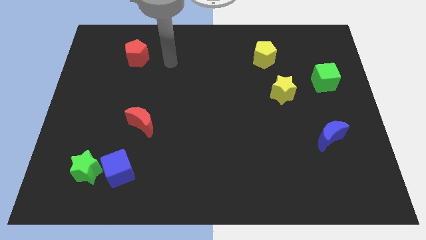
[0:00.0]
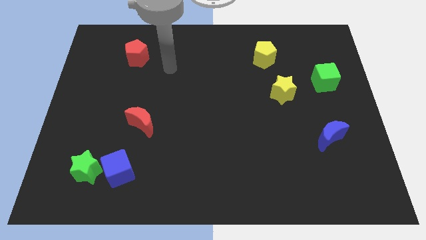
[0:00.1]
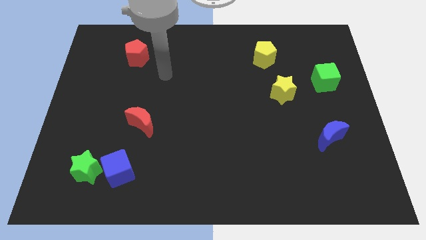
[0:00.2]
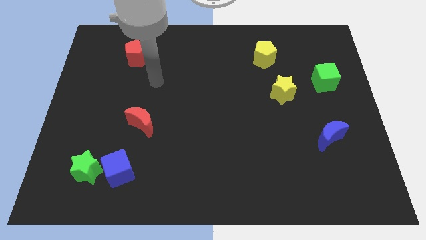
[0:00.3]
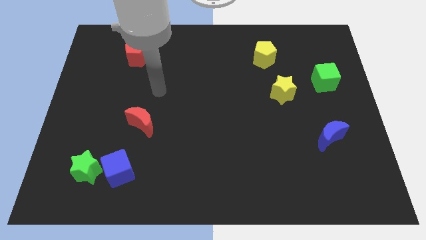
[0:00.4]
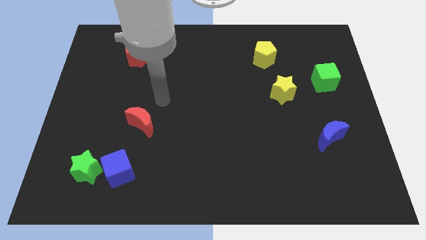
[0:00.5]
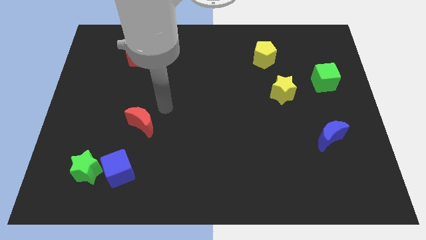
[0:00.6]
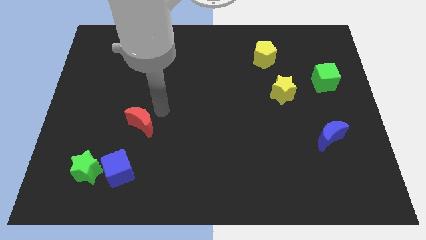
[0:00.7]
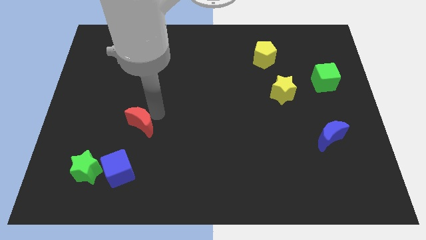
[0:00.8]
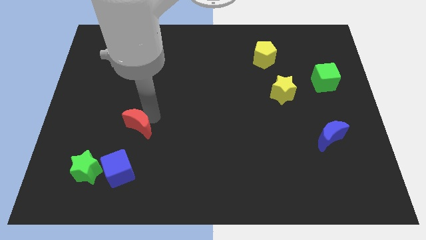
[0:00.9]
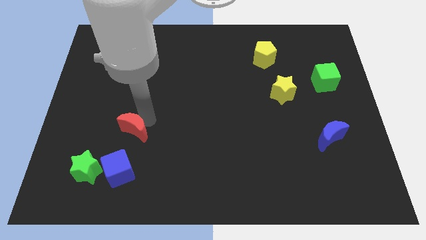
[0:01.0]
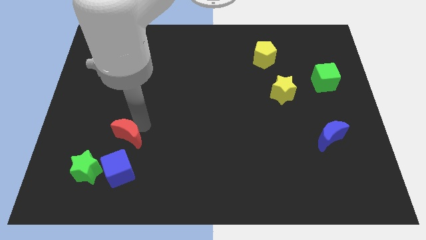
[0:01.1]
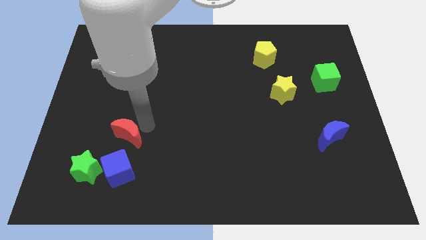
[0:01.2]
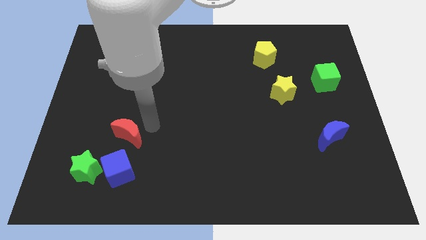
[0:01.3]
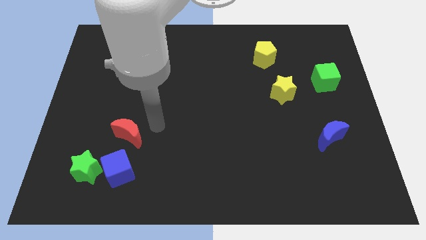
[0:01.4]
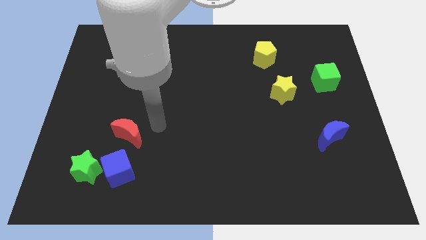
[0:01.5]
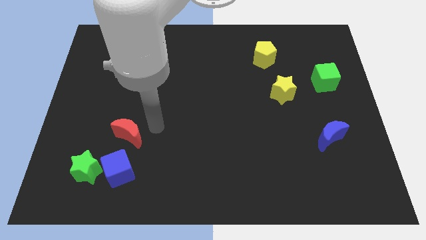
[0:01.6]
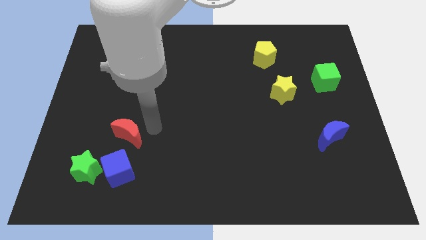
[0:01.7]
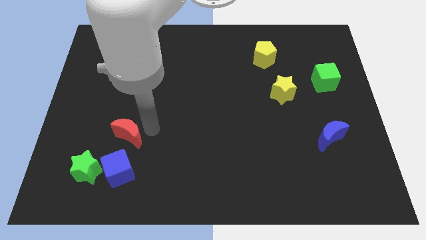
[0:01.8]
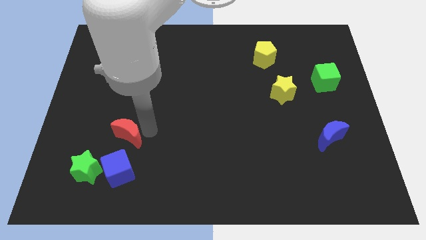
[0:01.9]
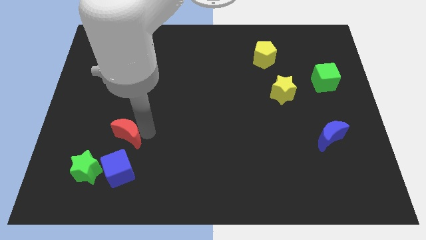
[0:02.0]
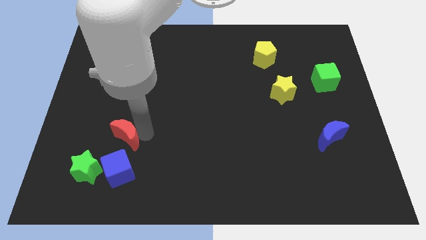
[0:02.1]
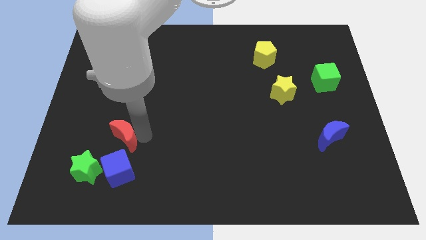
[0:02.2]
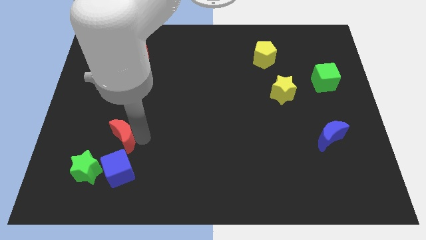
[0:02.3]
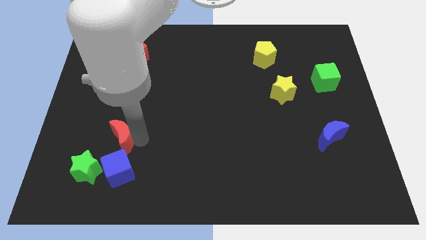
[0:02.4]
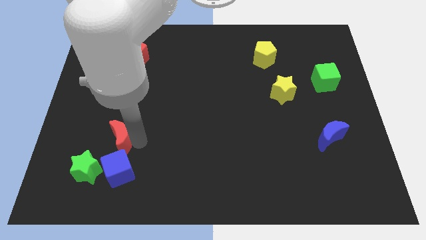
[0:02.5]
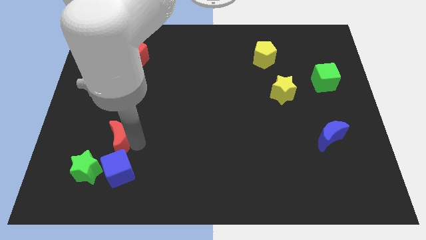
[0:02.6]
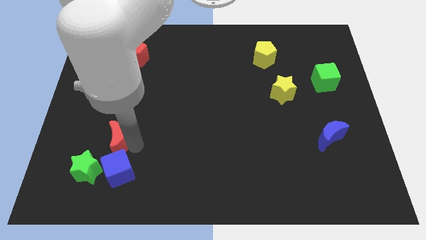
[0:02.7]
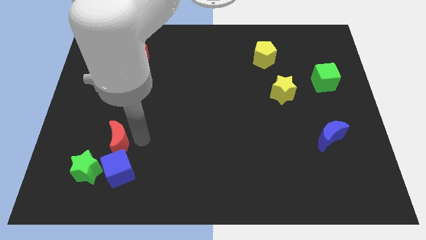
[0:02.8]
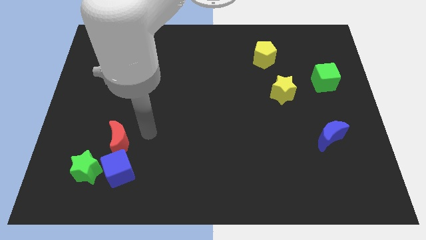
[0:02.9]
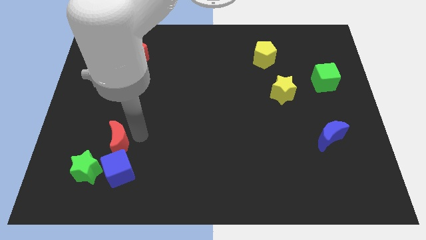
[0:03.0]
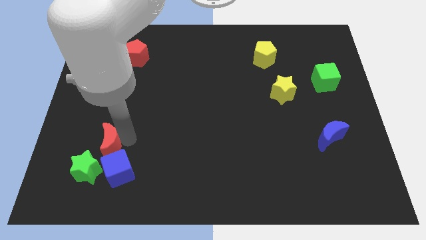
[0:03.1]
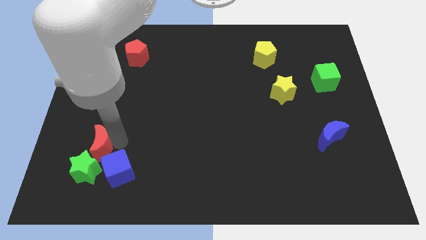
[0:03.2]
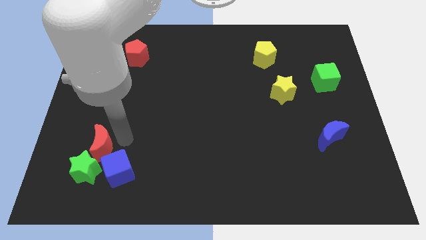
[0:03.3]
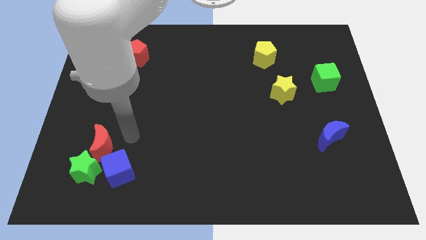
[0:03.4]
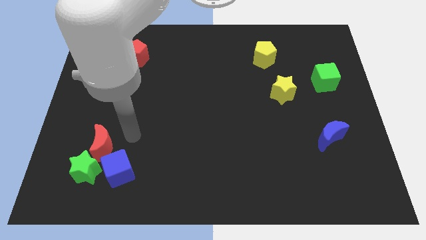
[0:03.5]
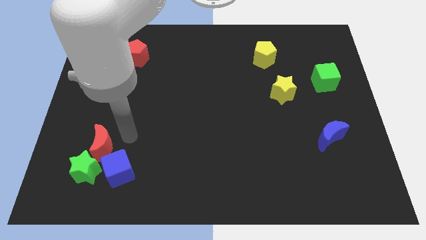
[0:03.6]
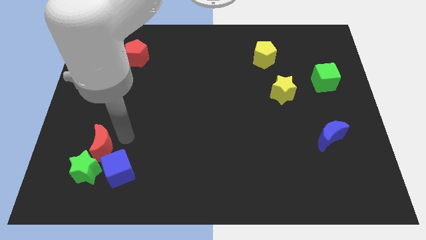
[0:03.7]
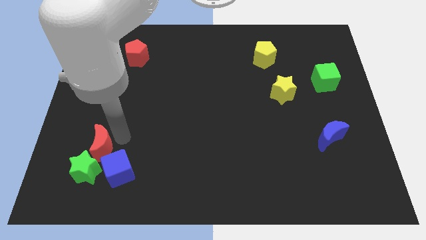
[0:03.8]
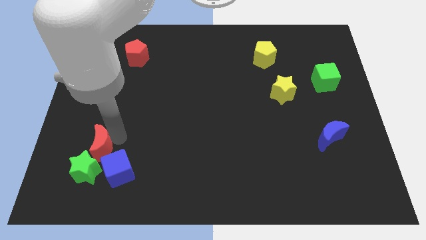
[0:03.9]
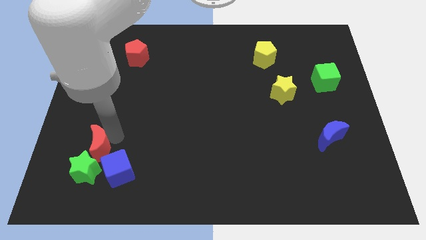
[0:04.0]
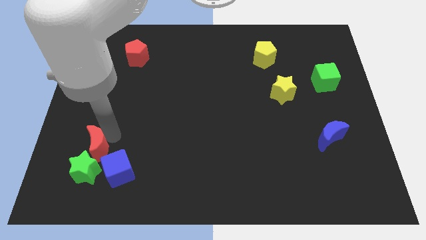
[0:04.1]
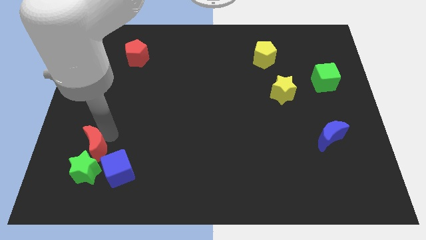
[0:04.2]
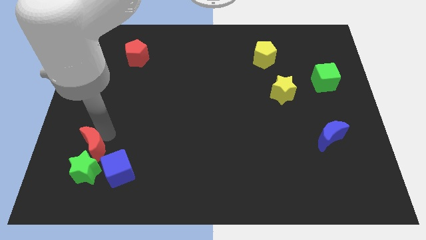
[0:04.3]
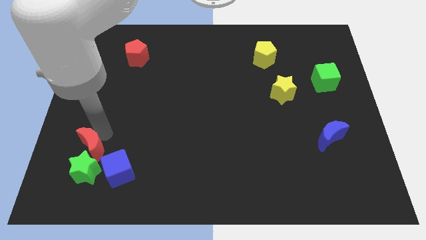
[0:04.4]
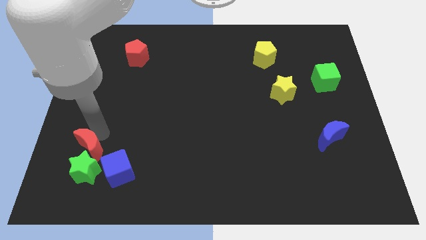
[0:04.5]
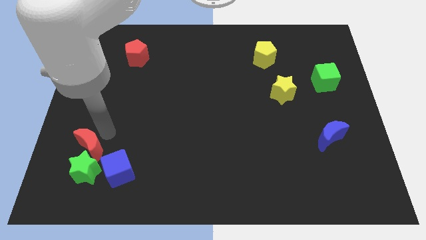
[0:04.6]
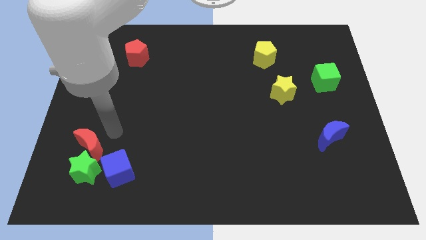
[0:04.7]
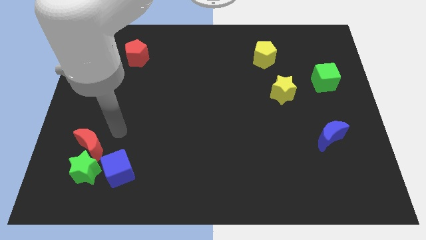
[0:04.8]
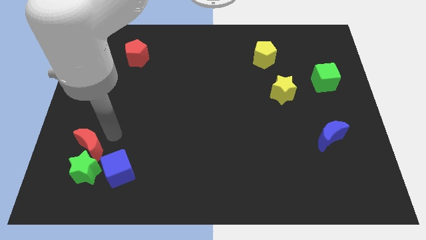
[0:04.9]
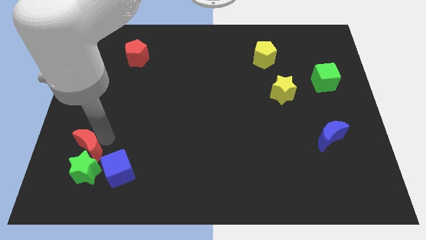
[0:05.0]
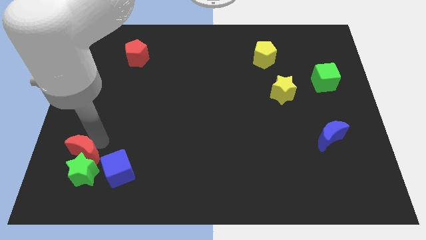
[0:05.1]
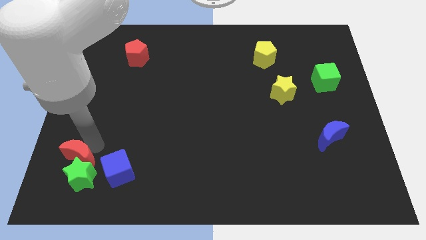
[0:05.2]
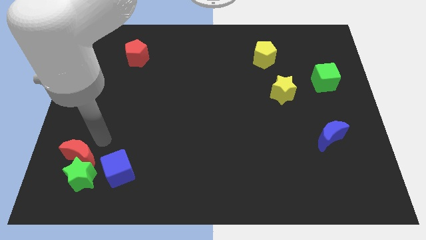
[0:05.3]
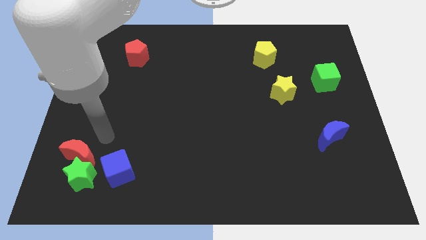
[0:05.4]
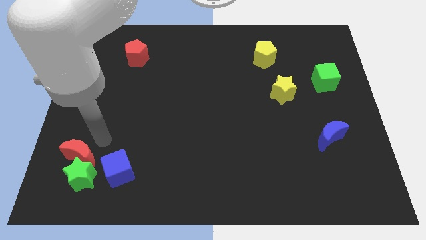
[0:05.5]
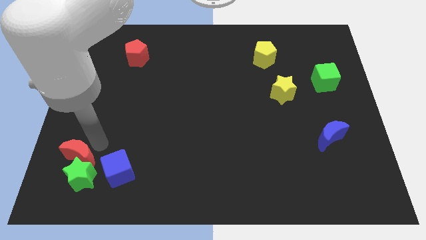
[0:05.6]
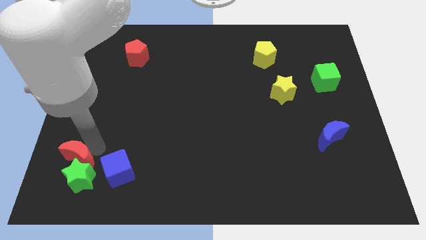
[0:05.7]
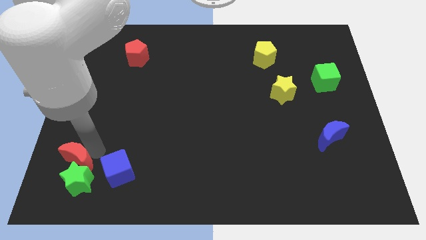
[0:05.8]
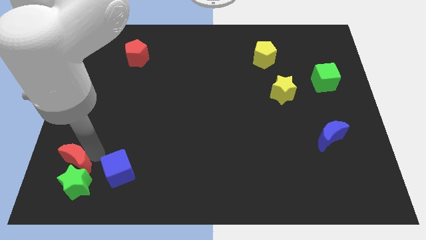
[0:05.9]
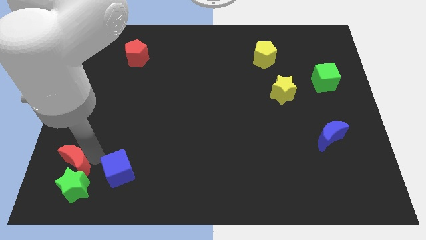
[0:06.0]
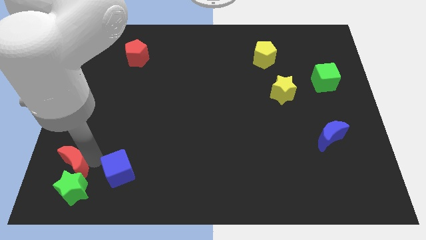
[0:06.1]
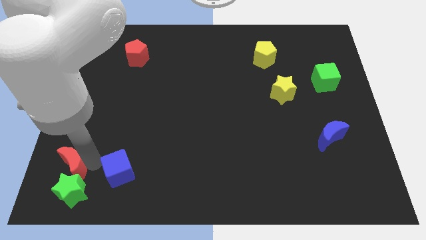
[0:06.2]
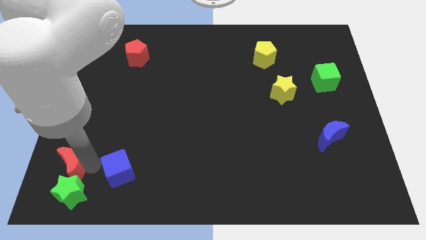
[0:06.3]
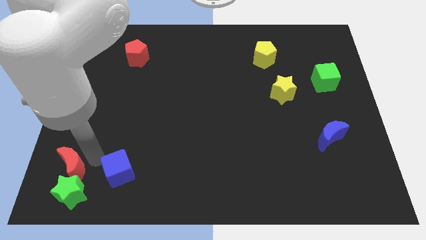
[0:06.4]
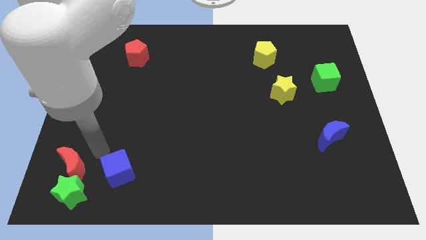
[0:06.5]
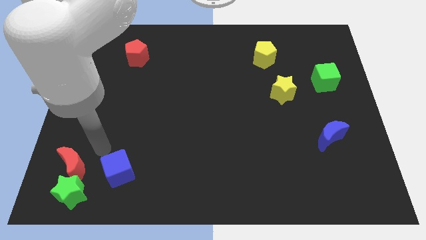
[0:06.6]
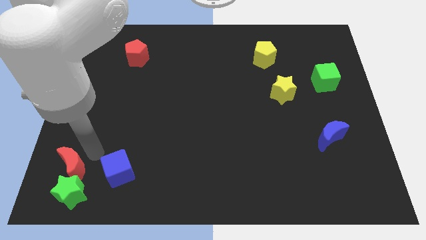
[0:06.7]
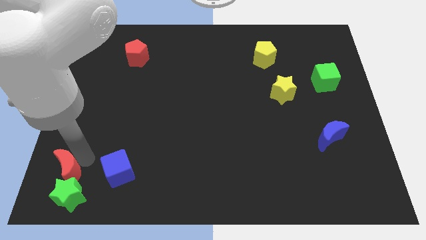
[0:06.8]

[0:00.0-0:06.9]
push the red moon to the bottom left of the board

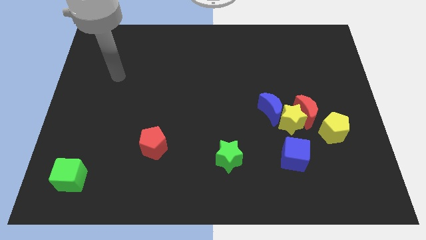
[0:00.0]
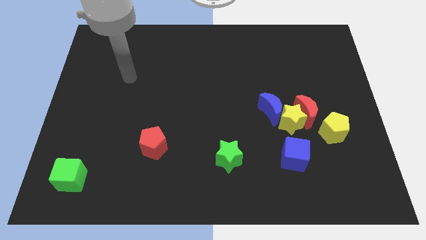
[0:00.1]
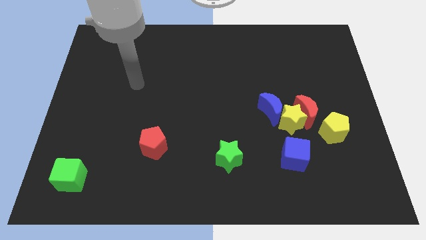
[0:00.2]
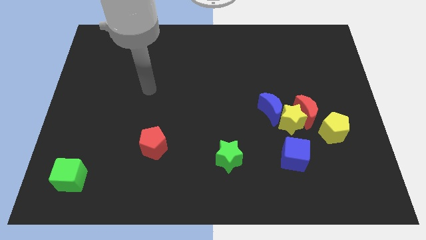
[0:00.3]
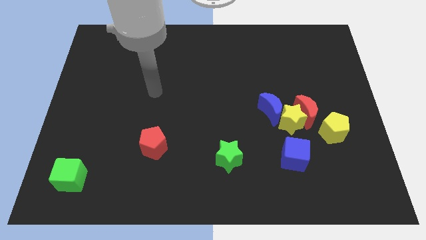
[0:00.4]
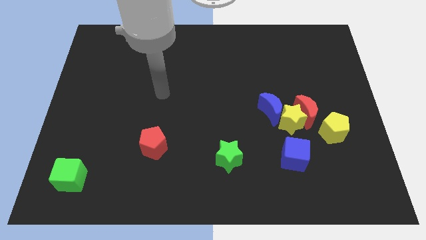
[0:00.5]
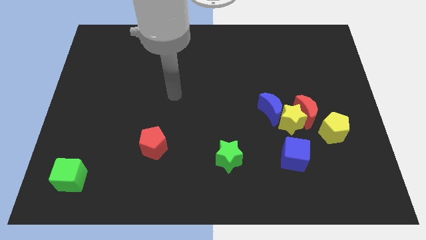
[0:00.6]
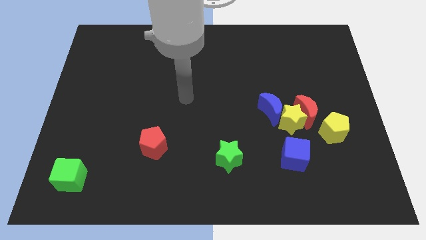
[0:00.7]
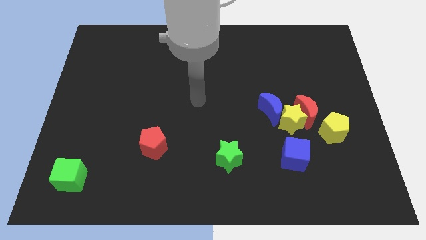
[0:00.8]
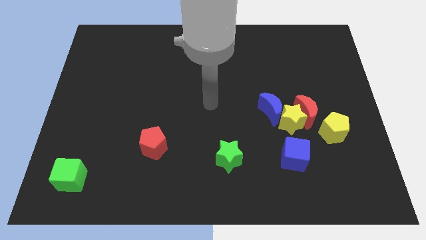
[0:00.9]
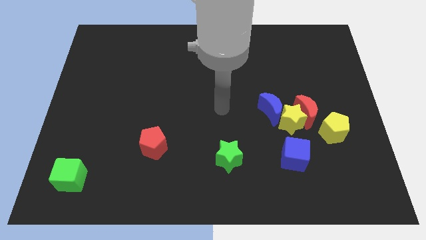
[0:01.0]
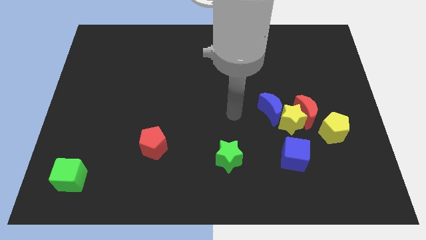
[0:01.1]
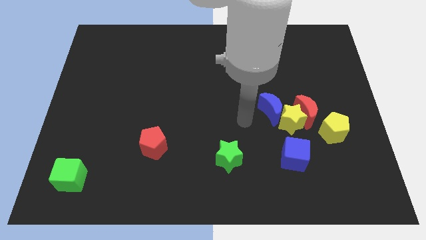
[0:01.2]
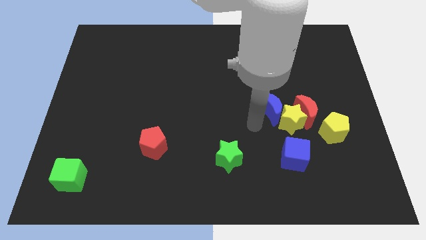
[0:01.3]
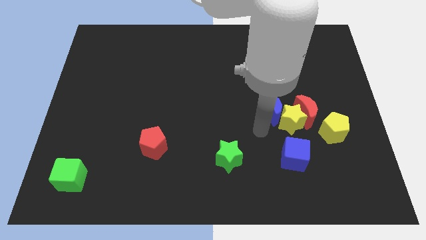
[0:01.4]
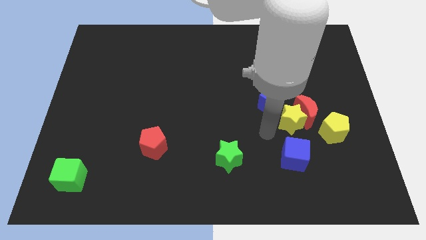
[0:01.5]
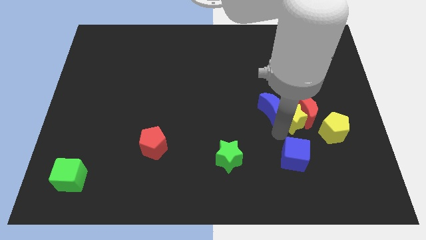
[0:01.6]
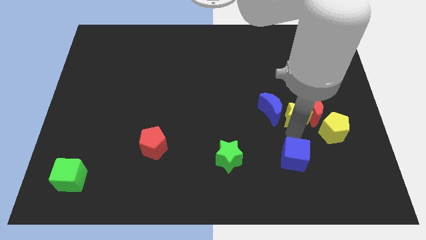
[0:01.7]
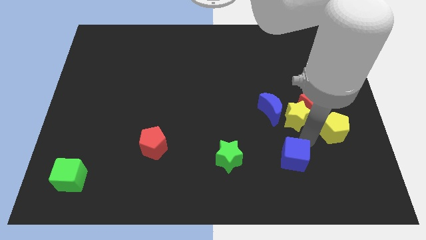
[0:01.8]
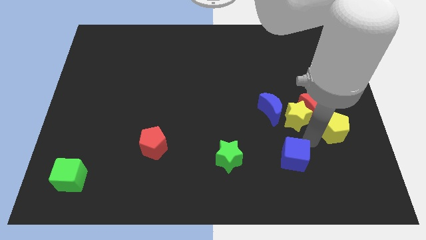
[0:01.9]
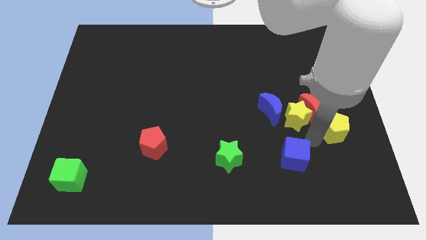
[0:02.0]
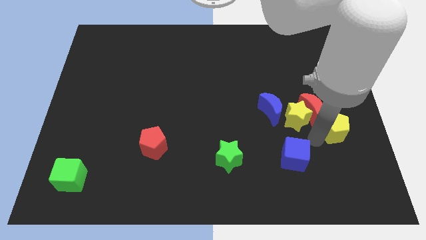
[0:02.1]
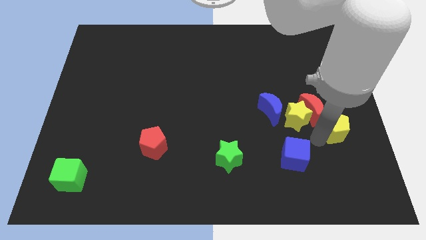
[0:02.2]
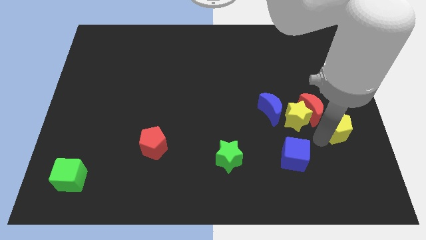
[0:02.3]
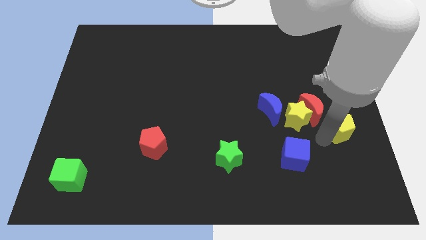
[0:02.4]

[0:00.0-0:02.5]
put the yellow pentagon to the center right
